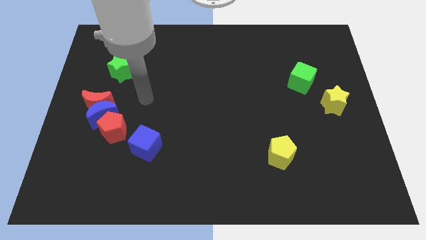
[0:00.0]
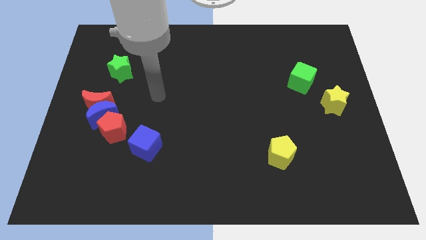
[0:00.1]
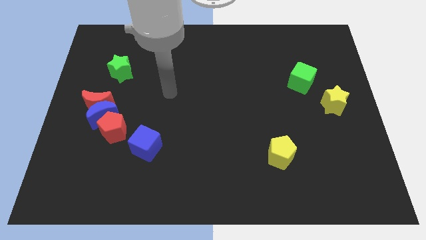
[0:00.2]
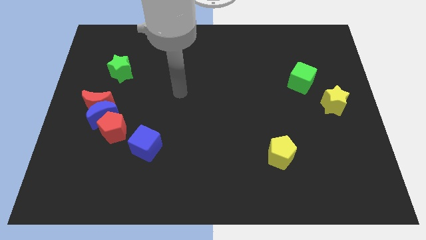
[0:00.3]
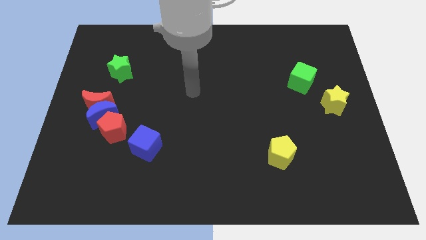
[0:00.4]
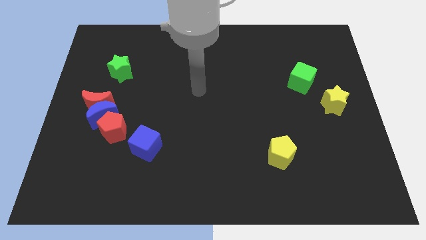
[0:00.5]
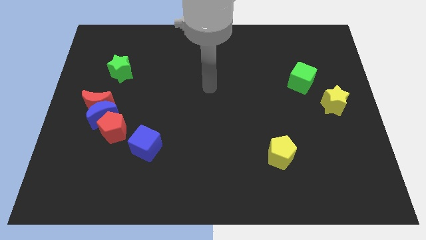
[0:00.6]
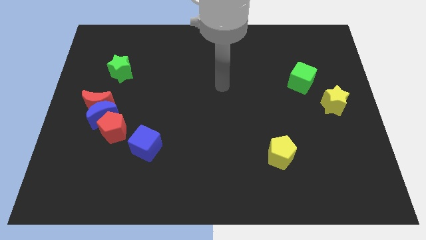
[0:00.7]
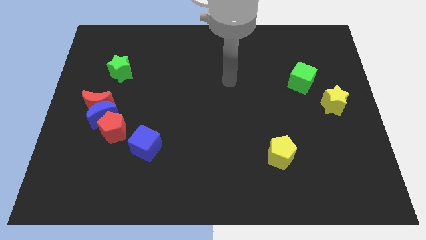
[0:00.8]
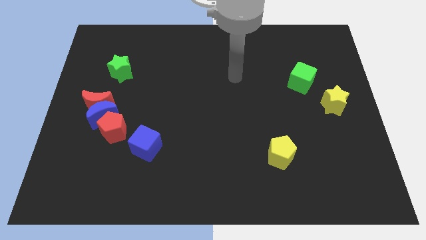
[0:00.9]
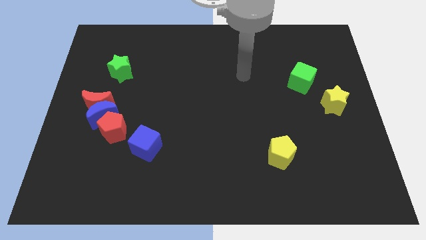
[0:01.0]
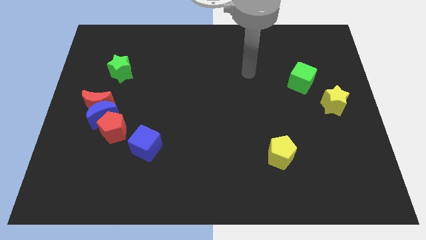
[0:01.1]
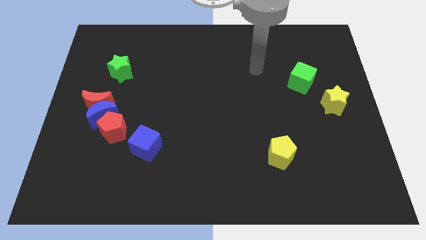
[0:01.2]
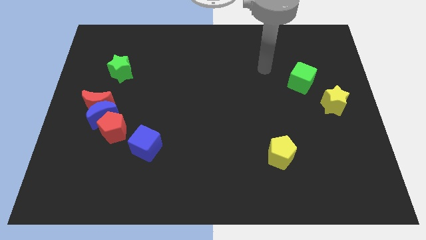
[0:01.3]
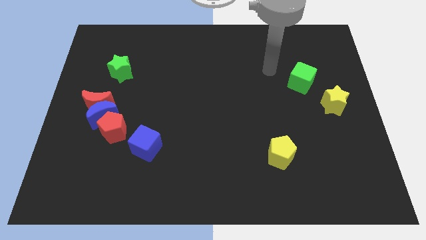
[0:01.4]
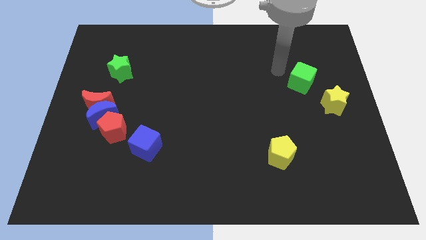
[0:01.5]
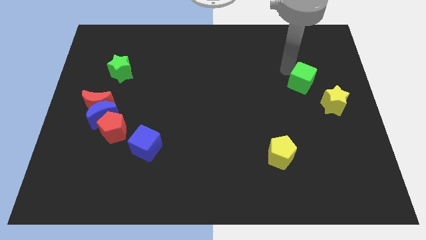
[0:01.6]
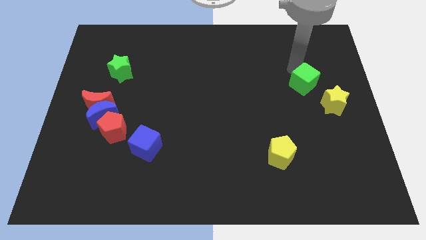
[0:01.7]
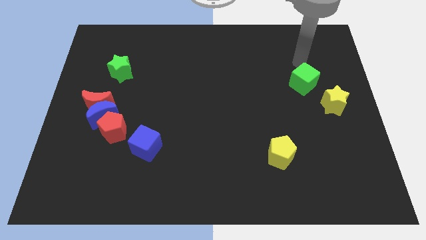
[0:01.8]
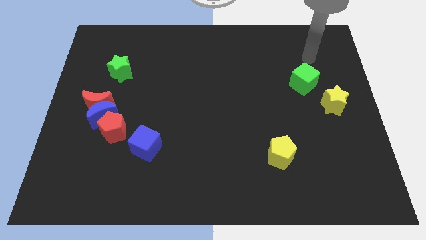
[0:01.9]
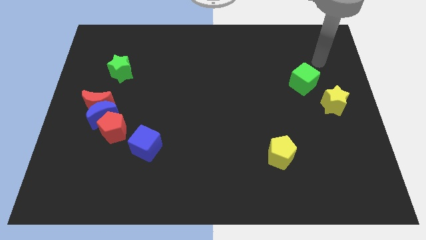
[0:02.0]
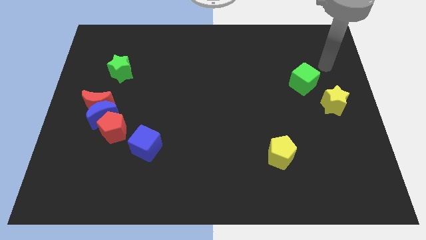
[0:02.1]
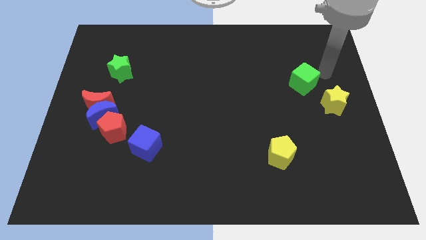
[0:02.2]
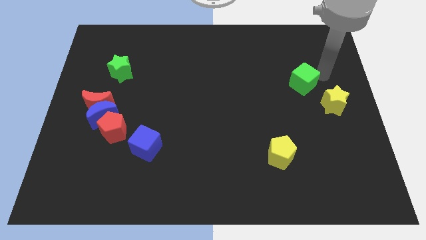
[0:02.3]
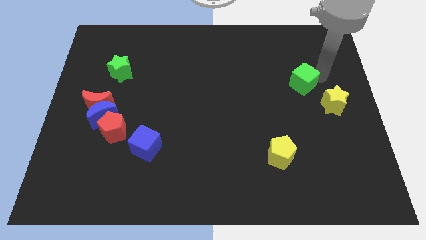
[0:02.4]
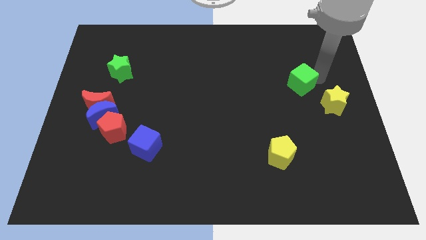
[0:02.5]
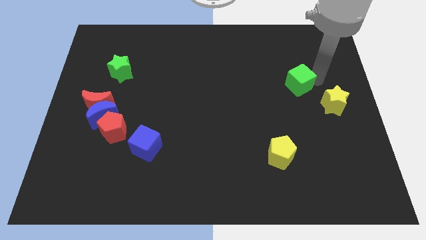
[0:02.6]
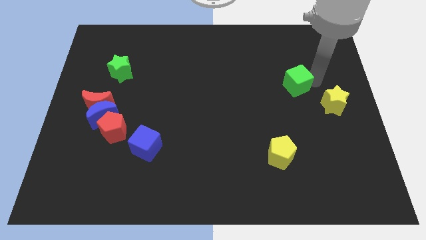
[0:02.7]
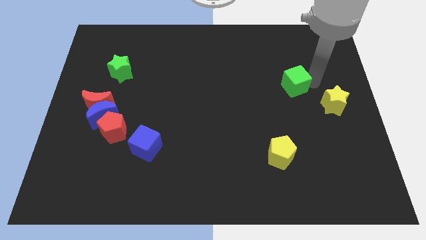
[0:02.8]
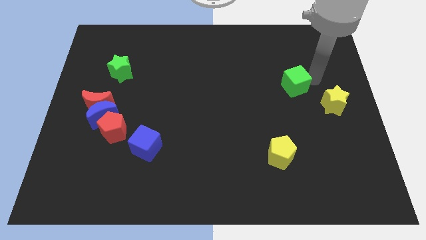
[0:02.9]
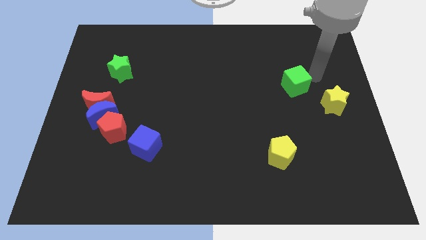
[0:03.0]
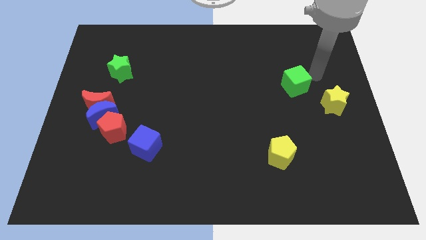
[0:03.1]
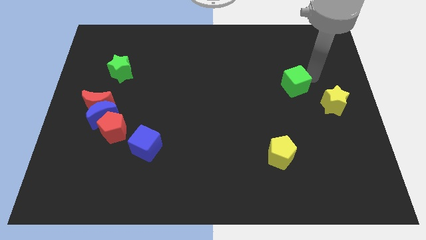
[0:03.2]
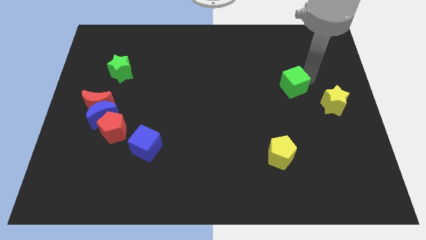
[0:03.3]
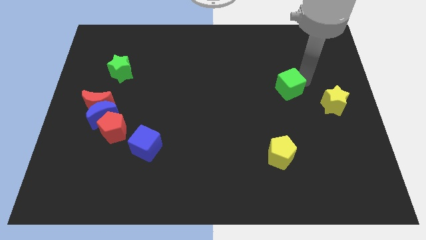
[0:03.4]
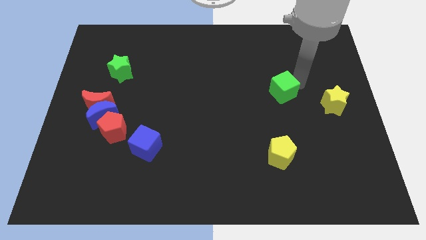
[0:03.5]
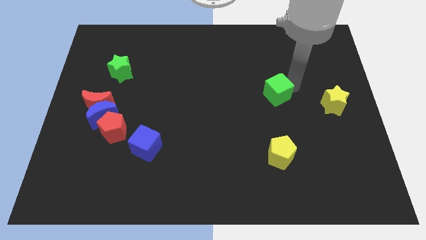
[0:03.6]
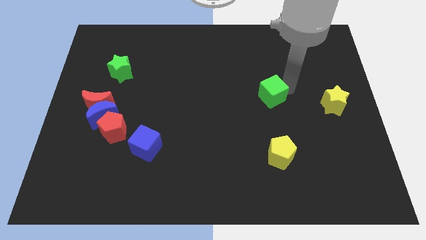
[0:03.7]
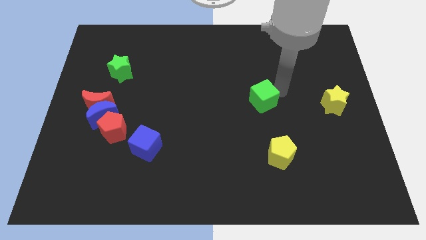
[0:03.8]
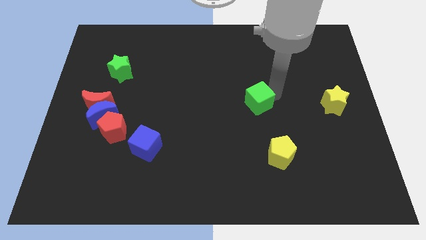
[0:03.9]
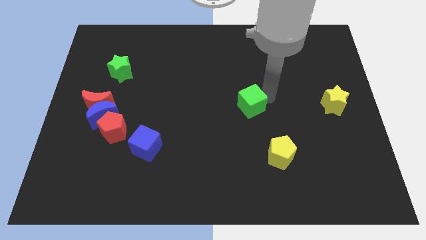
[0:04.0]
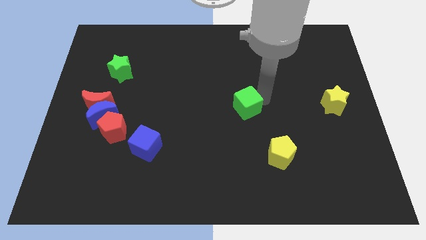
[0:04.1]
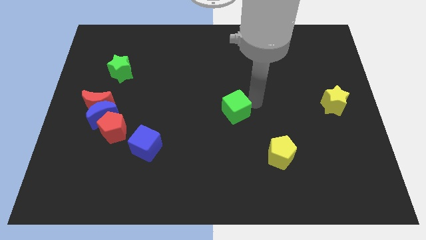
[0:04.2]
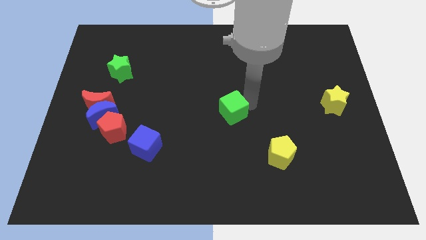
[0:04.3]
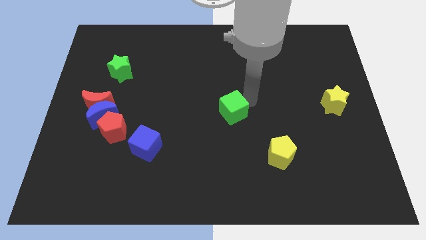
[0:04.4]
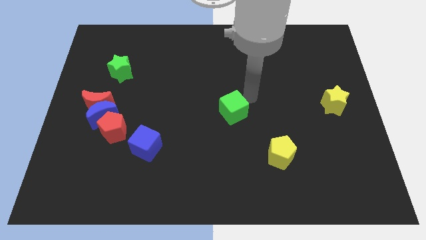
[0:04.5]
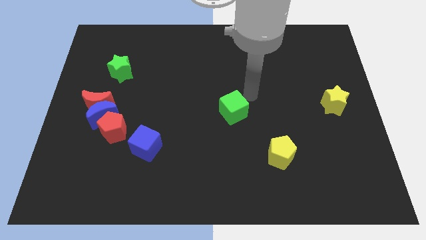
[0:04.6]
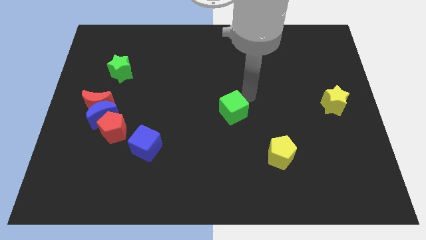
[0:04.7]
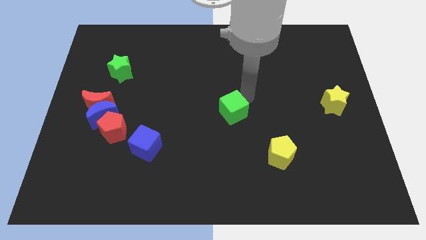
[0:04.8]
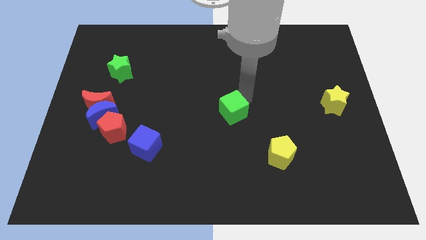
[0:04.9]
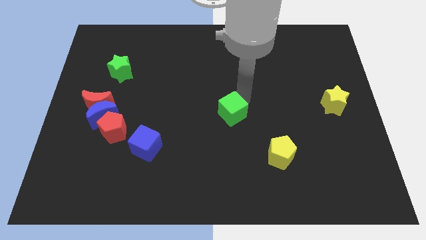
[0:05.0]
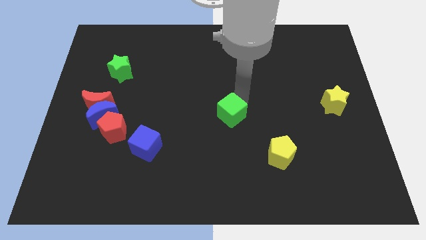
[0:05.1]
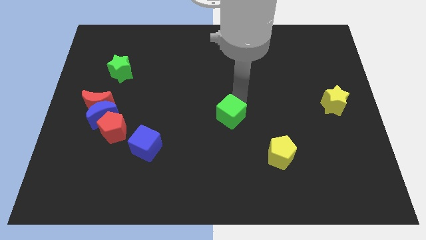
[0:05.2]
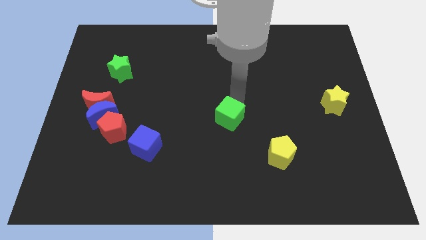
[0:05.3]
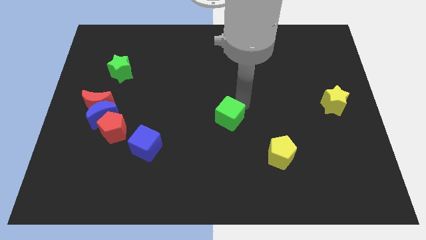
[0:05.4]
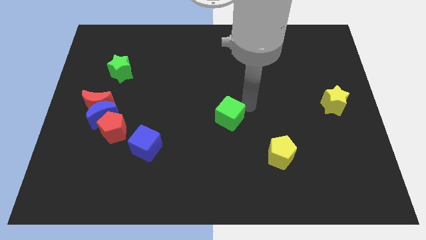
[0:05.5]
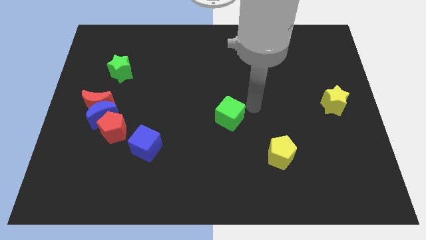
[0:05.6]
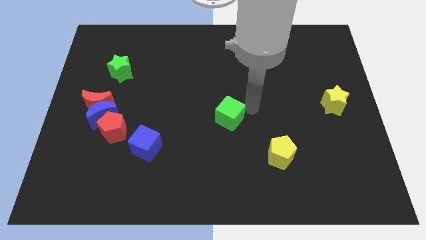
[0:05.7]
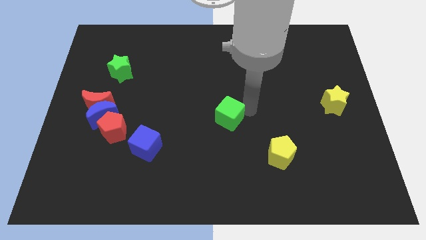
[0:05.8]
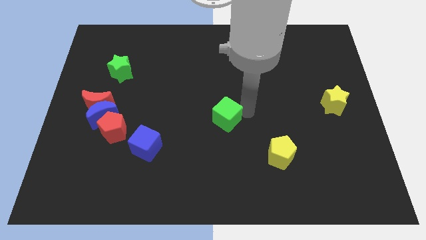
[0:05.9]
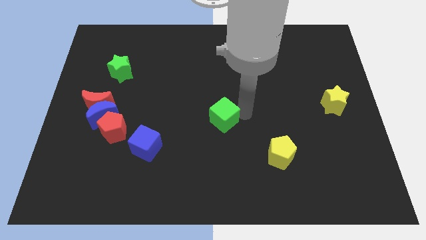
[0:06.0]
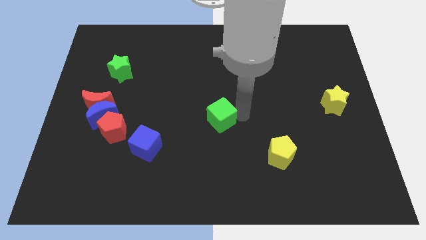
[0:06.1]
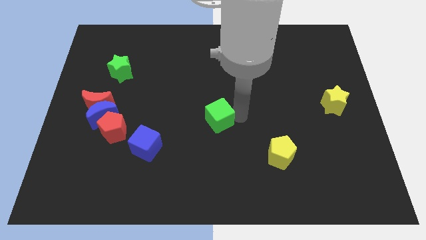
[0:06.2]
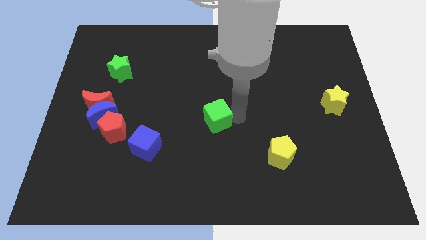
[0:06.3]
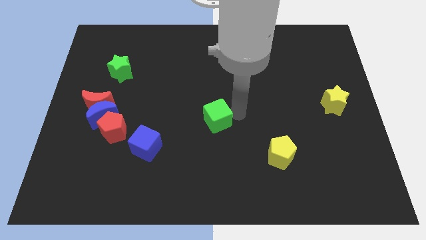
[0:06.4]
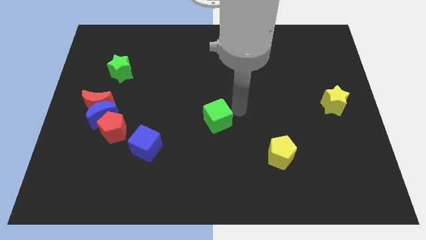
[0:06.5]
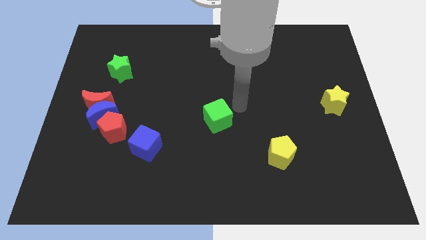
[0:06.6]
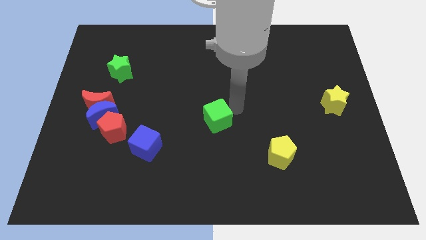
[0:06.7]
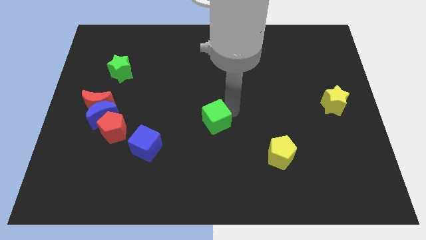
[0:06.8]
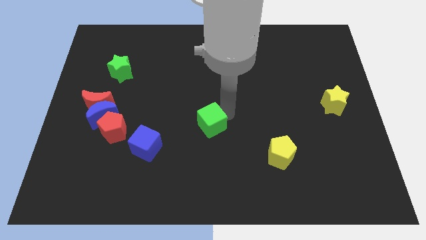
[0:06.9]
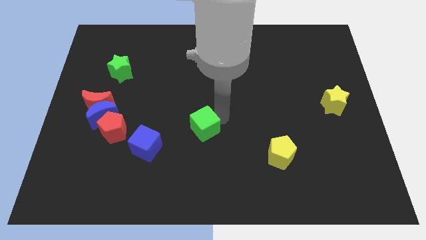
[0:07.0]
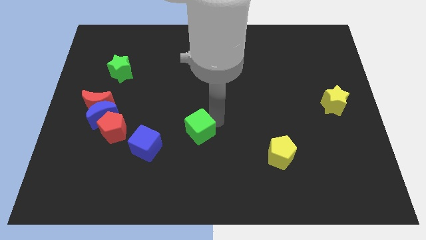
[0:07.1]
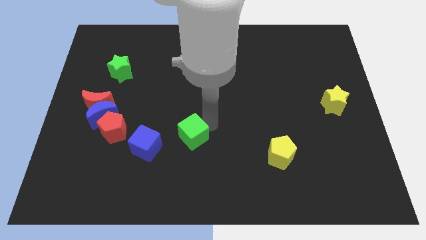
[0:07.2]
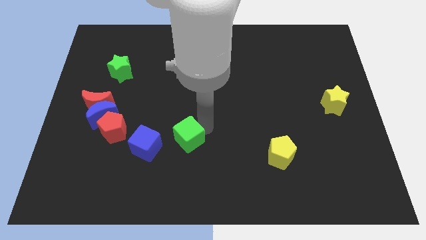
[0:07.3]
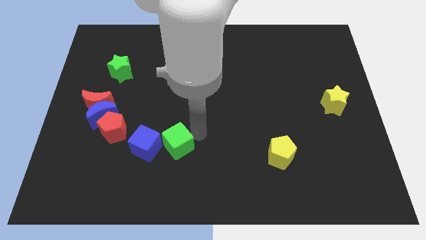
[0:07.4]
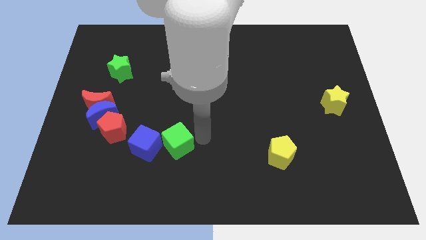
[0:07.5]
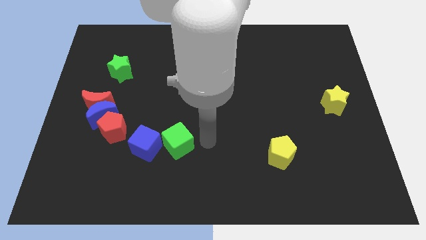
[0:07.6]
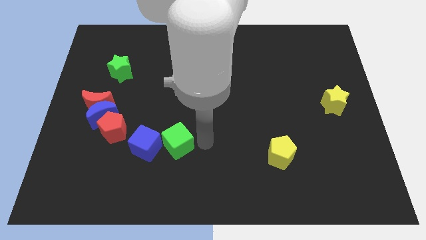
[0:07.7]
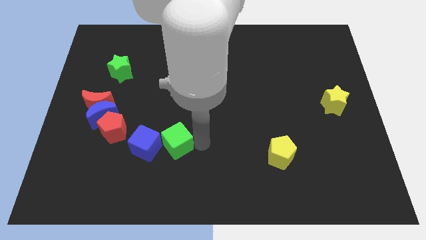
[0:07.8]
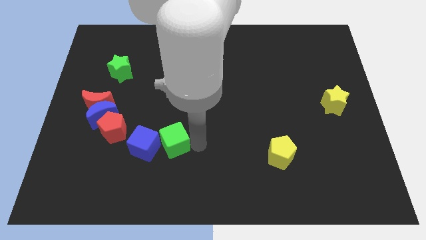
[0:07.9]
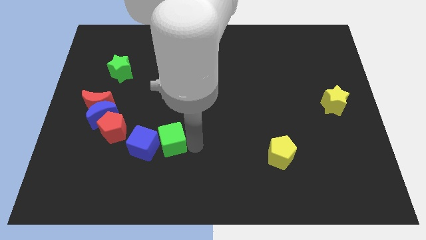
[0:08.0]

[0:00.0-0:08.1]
push the green cube next to the blue cube
